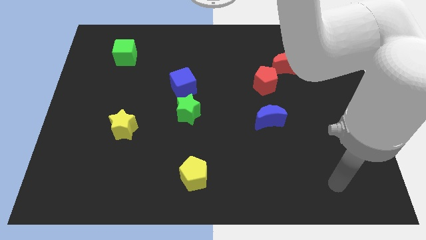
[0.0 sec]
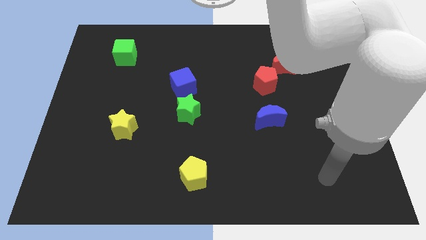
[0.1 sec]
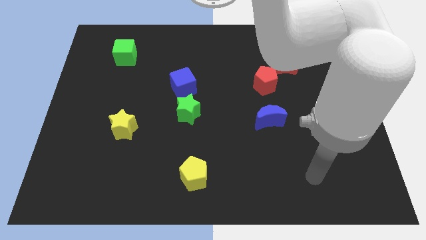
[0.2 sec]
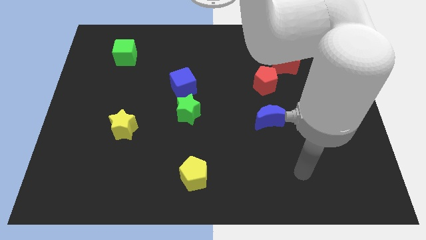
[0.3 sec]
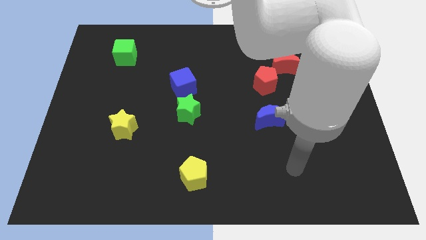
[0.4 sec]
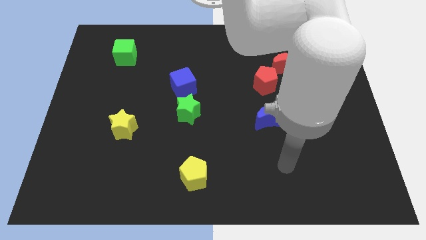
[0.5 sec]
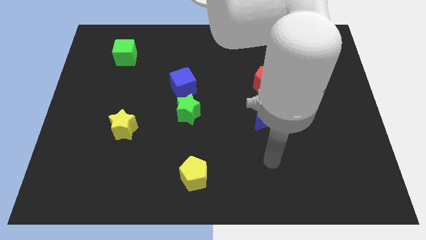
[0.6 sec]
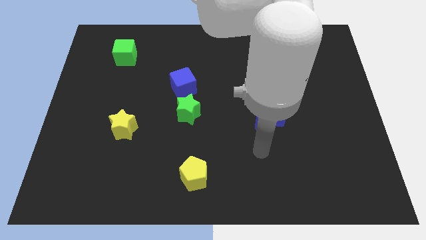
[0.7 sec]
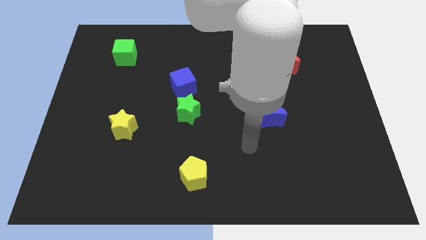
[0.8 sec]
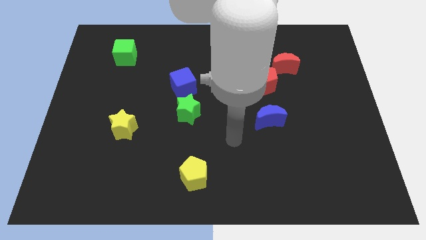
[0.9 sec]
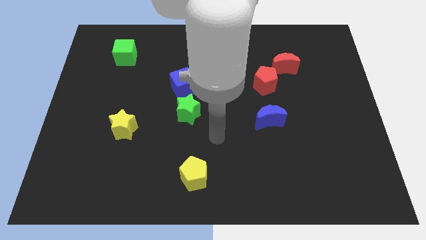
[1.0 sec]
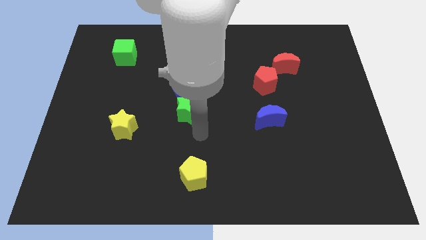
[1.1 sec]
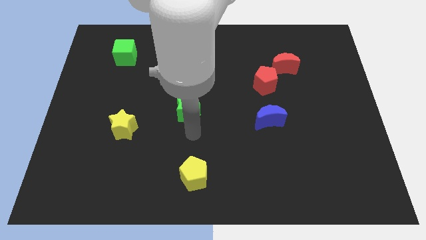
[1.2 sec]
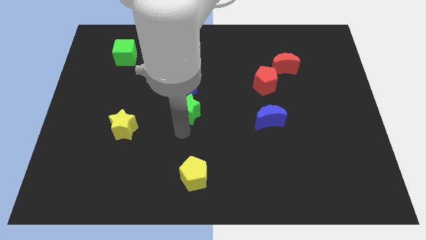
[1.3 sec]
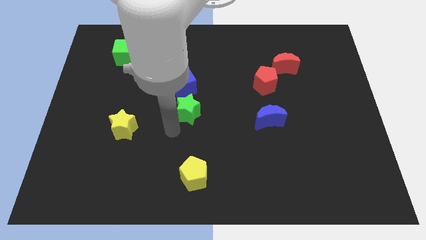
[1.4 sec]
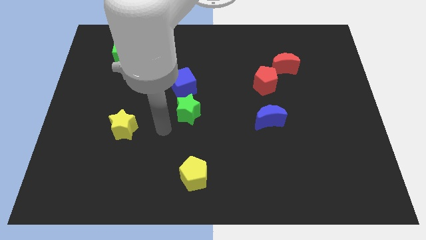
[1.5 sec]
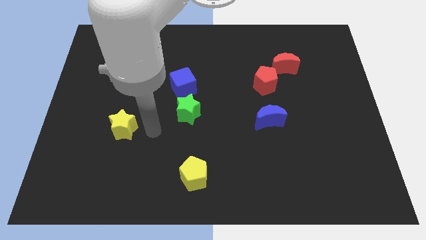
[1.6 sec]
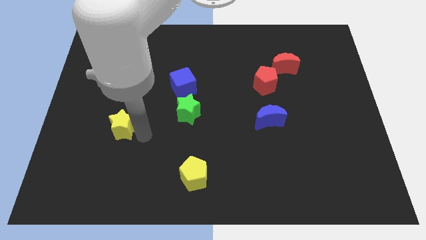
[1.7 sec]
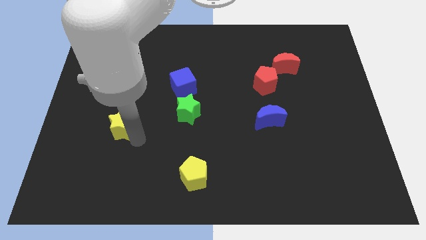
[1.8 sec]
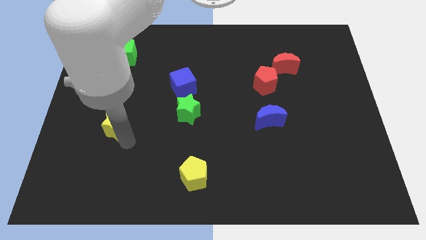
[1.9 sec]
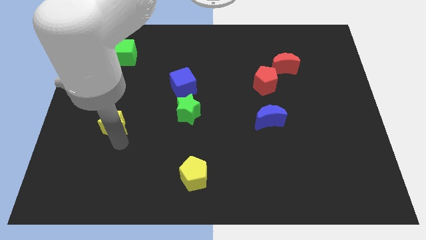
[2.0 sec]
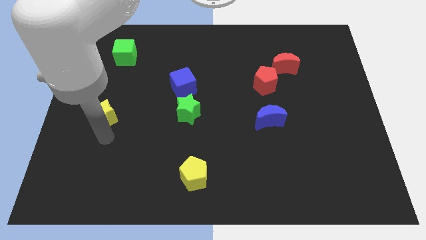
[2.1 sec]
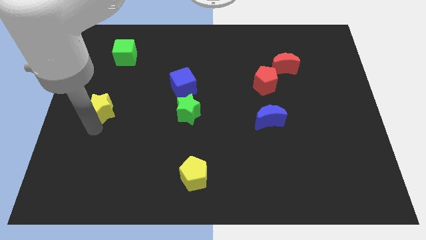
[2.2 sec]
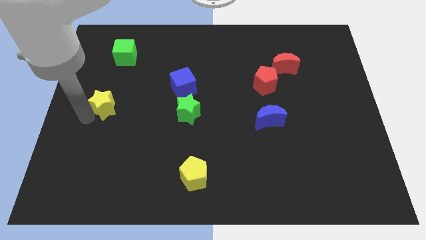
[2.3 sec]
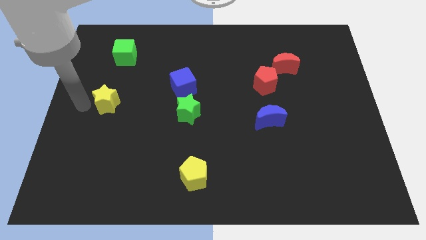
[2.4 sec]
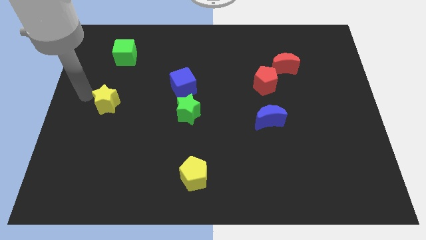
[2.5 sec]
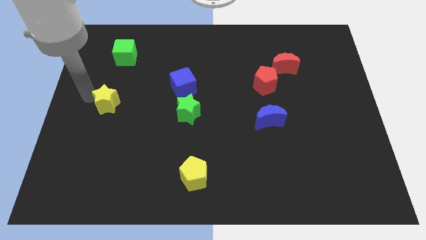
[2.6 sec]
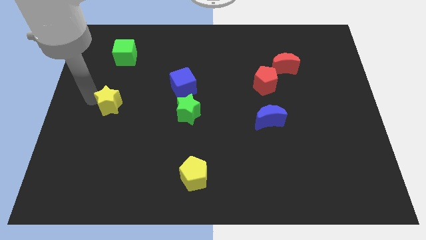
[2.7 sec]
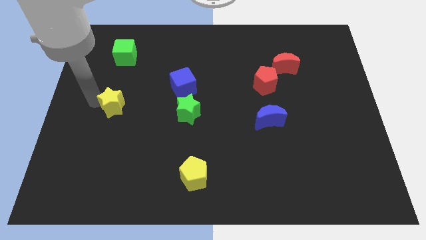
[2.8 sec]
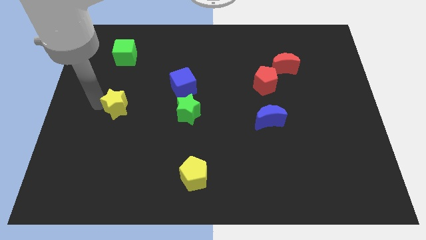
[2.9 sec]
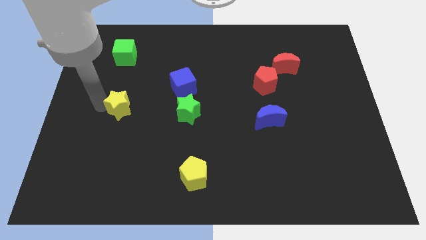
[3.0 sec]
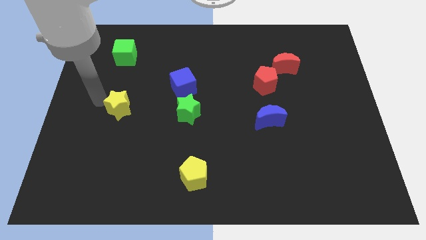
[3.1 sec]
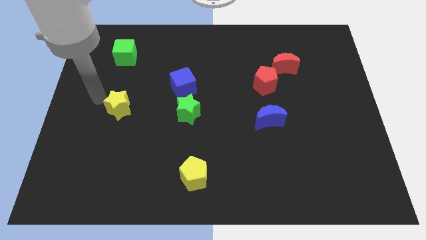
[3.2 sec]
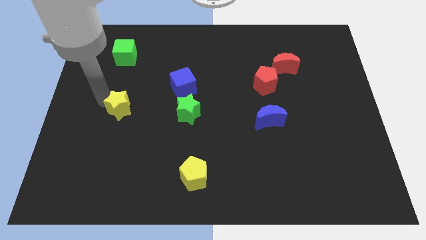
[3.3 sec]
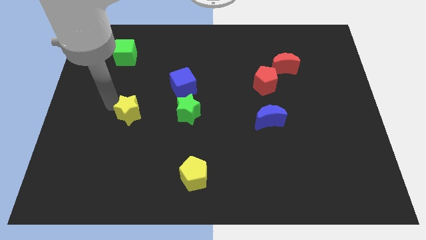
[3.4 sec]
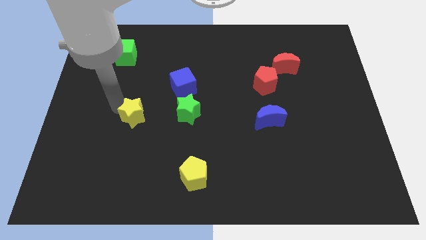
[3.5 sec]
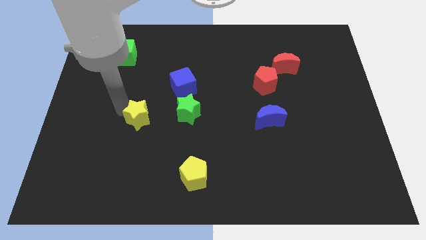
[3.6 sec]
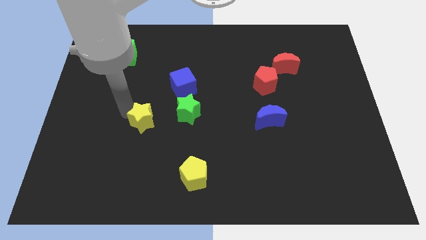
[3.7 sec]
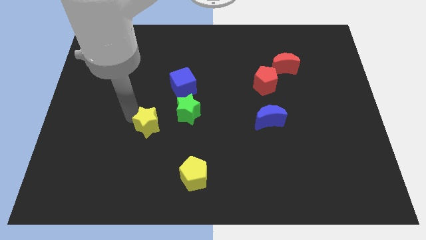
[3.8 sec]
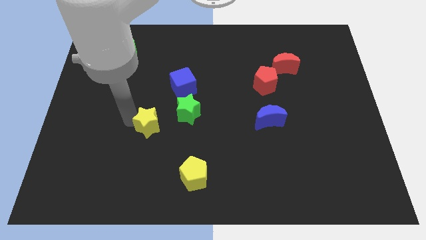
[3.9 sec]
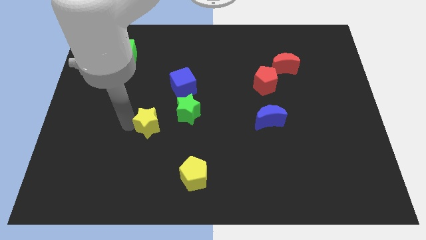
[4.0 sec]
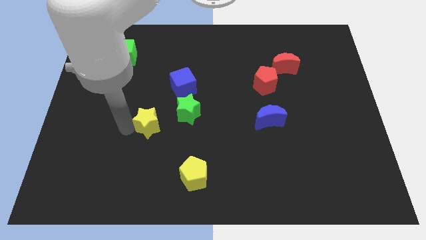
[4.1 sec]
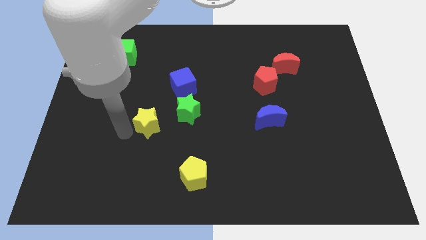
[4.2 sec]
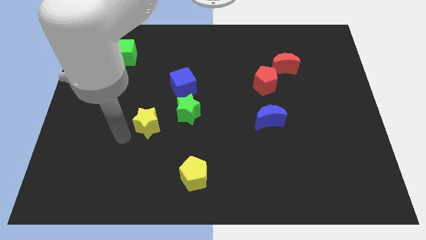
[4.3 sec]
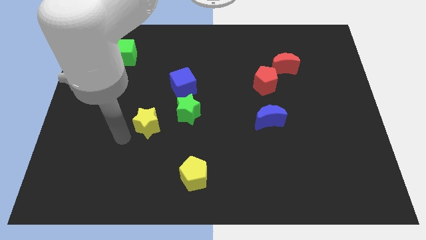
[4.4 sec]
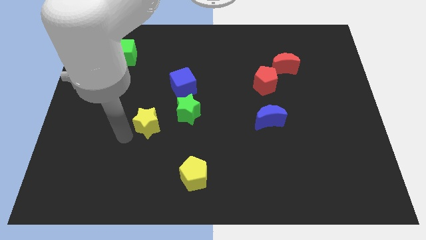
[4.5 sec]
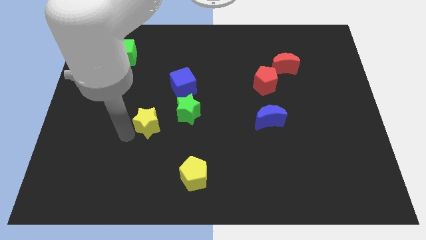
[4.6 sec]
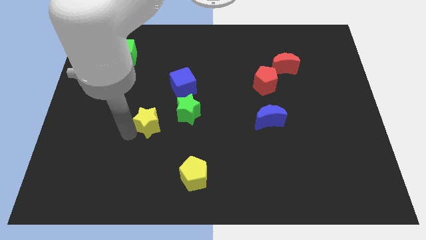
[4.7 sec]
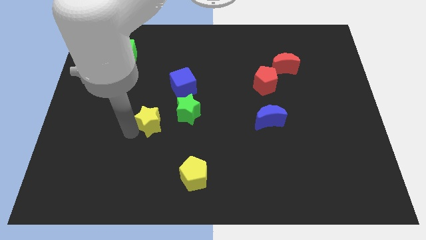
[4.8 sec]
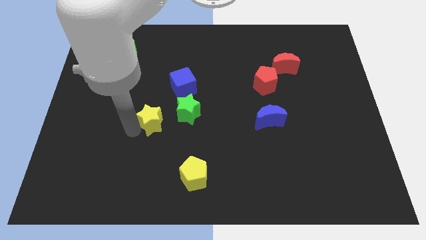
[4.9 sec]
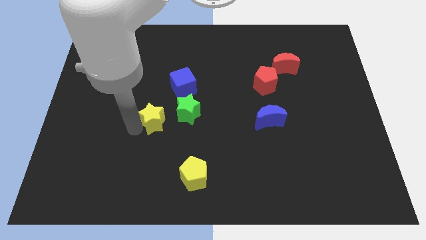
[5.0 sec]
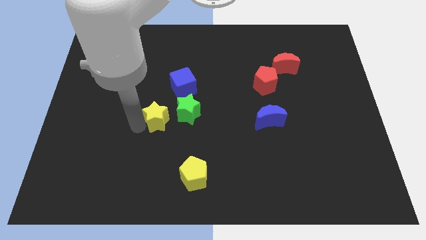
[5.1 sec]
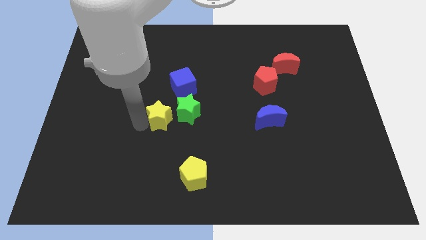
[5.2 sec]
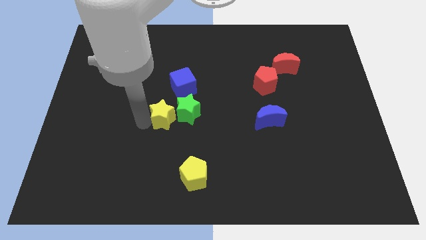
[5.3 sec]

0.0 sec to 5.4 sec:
move the yellow star close to the green star

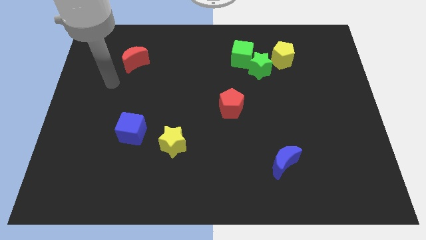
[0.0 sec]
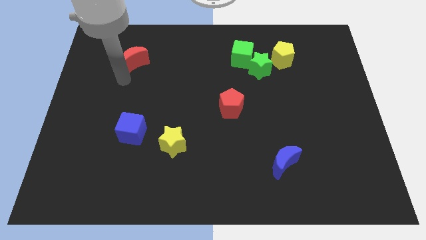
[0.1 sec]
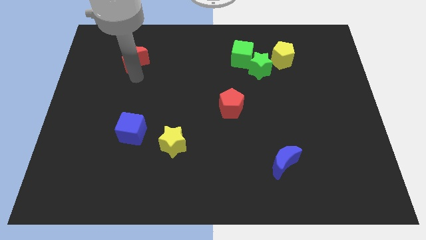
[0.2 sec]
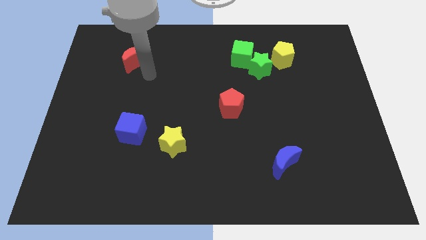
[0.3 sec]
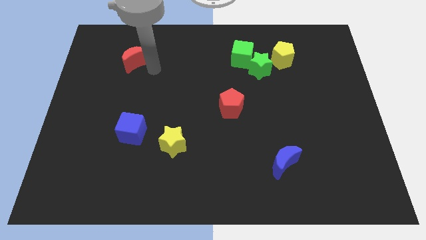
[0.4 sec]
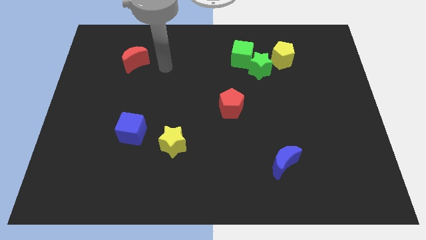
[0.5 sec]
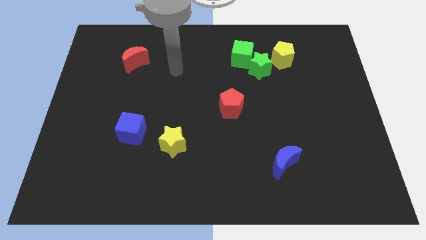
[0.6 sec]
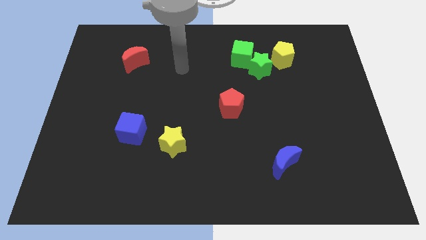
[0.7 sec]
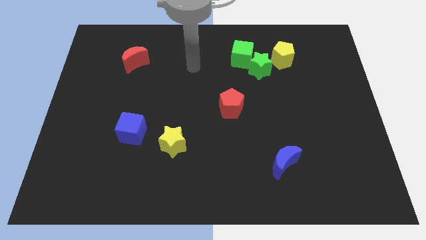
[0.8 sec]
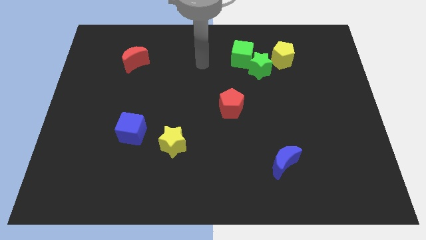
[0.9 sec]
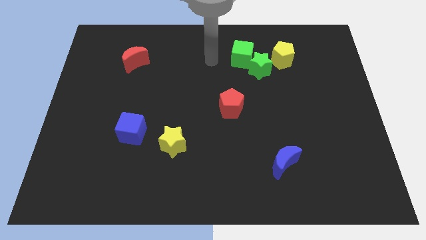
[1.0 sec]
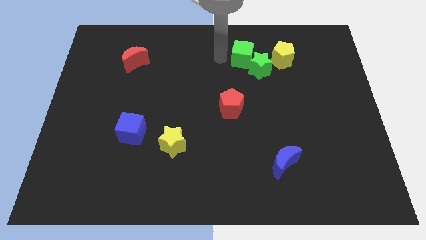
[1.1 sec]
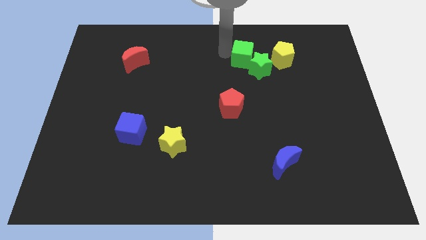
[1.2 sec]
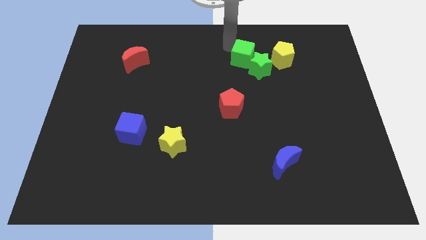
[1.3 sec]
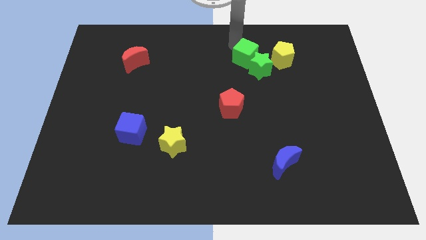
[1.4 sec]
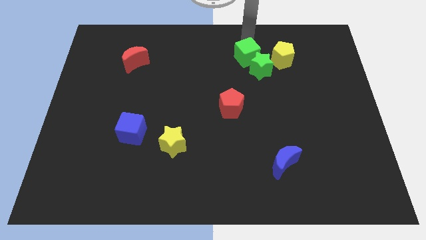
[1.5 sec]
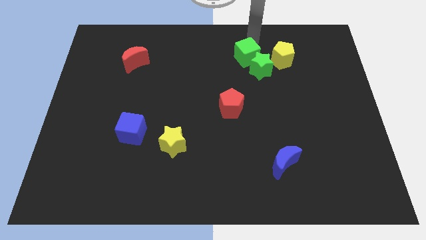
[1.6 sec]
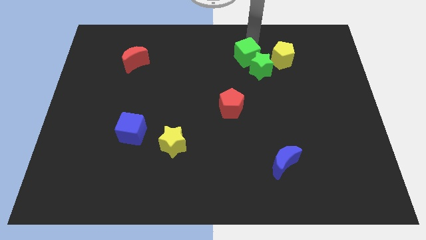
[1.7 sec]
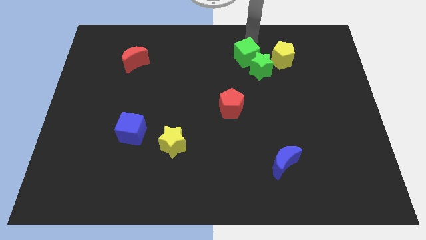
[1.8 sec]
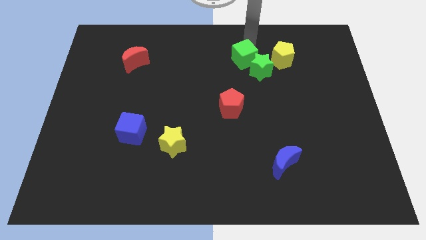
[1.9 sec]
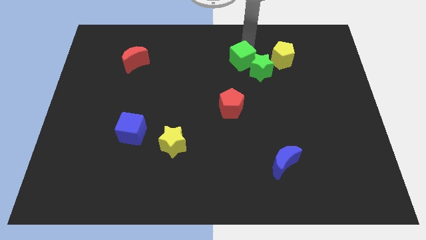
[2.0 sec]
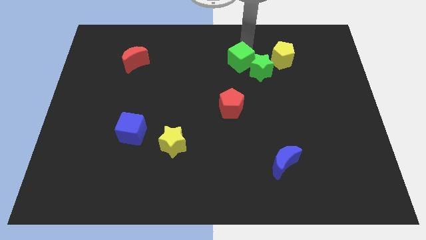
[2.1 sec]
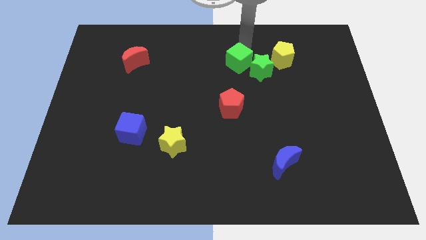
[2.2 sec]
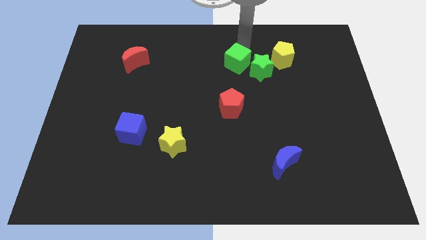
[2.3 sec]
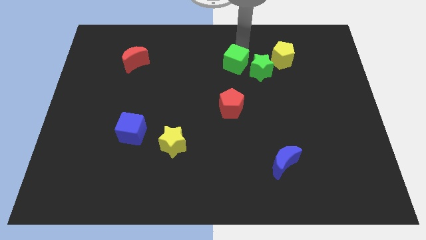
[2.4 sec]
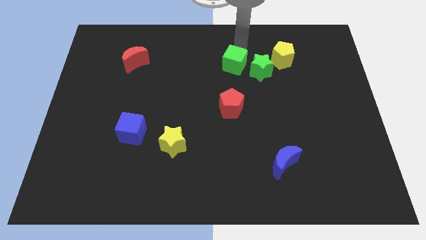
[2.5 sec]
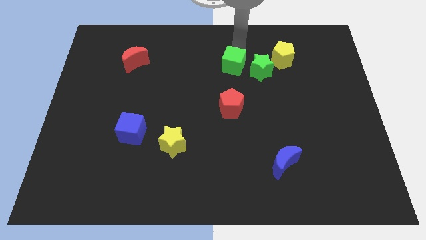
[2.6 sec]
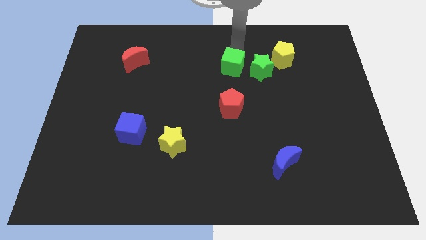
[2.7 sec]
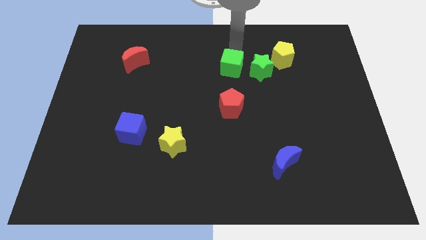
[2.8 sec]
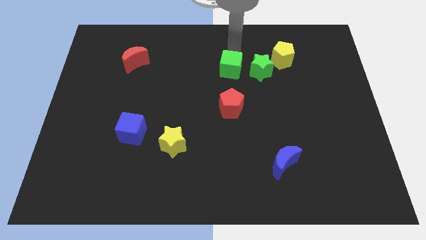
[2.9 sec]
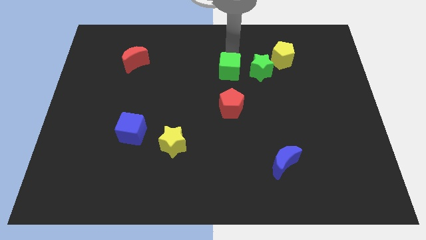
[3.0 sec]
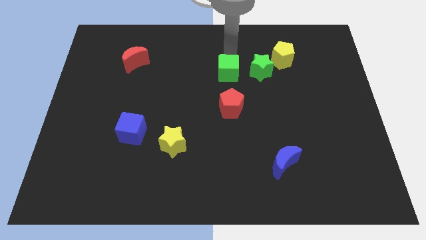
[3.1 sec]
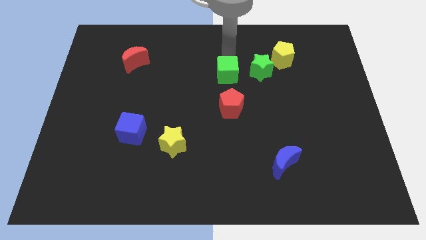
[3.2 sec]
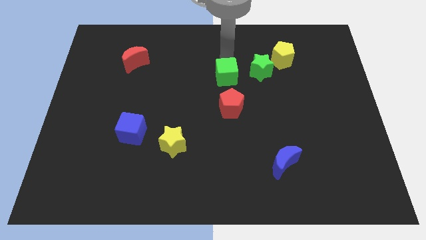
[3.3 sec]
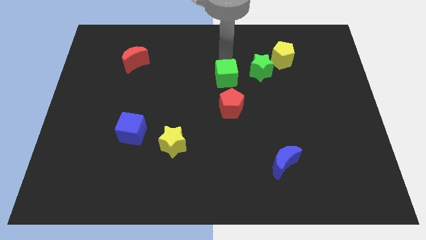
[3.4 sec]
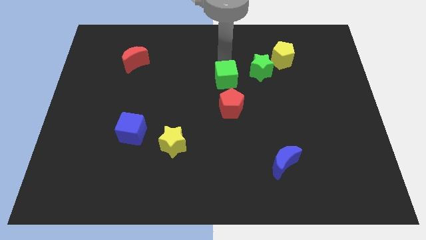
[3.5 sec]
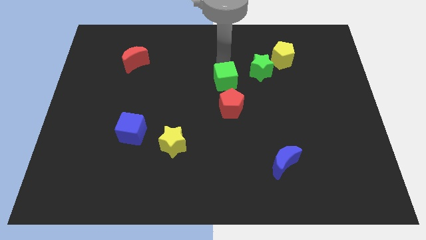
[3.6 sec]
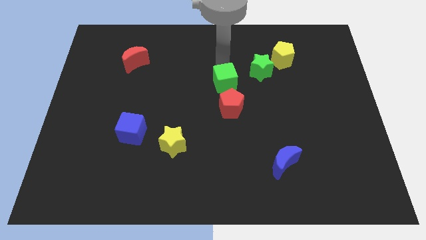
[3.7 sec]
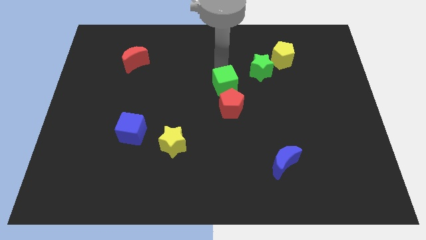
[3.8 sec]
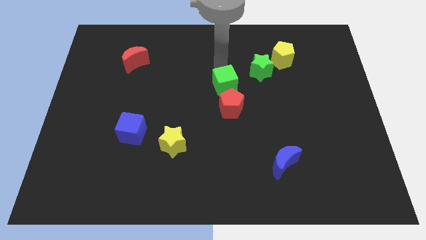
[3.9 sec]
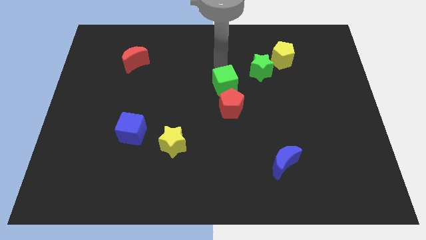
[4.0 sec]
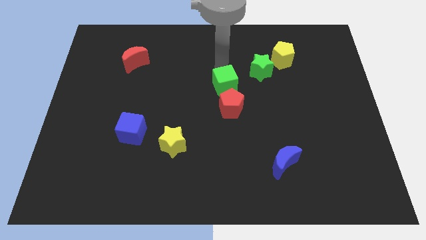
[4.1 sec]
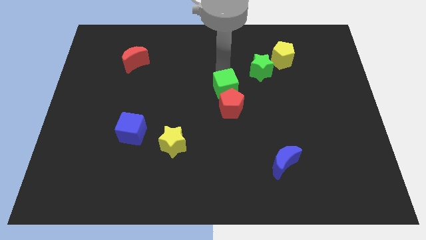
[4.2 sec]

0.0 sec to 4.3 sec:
push the green cube close to the red pentagon
